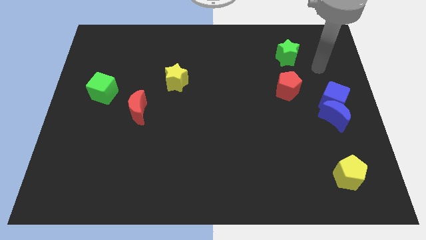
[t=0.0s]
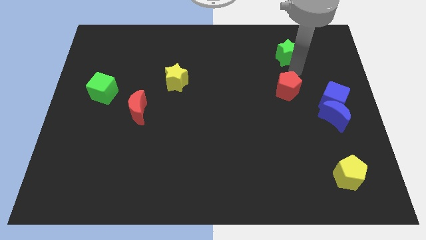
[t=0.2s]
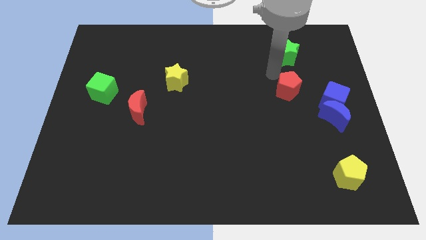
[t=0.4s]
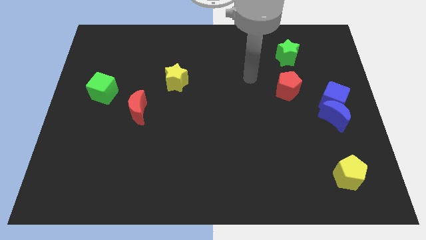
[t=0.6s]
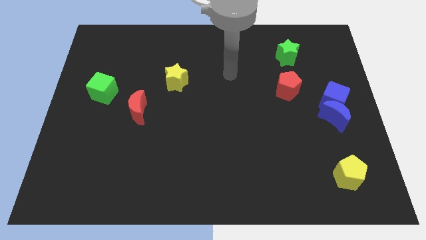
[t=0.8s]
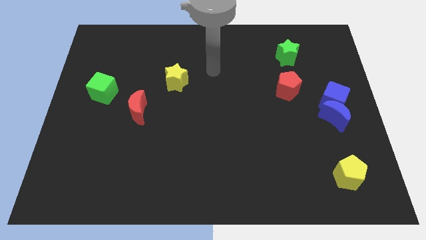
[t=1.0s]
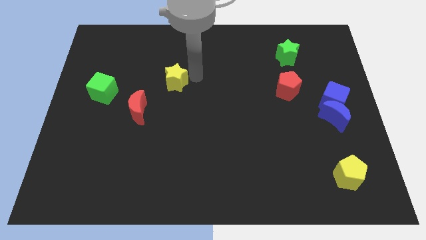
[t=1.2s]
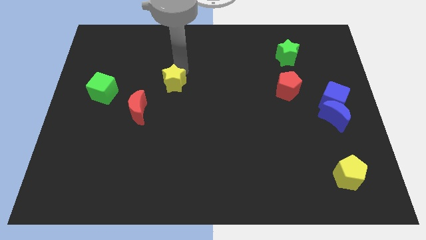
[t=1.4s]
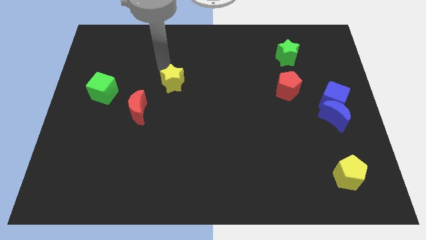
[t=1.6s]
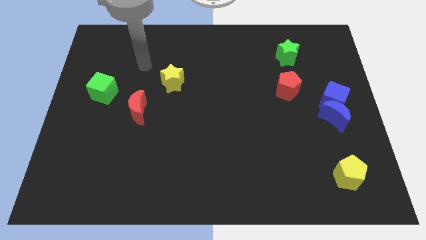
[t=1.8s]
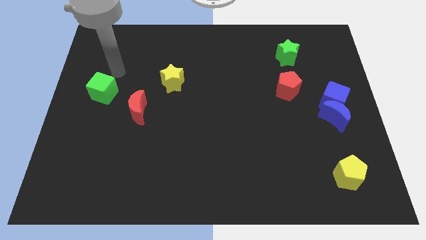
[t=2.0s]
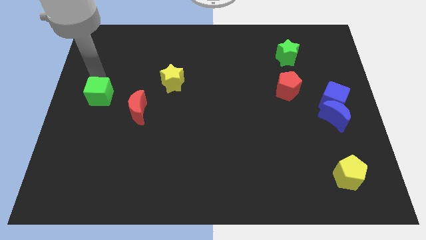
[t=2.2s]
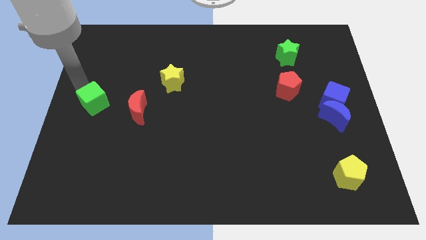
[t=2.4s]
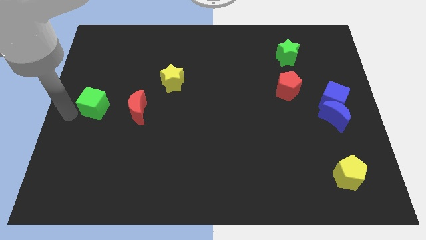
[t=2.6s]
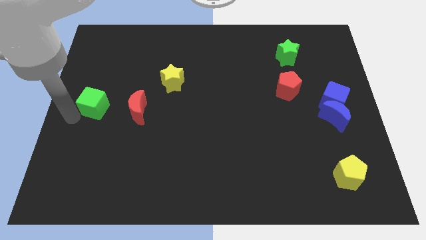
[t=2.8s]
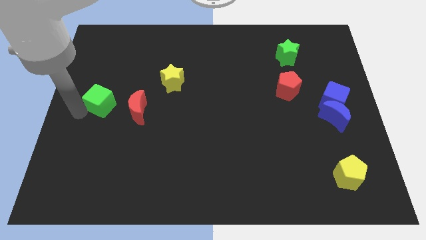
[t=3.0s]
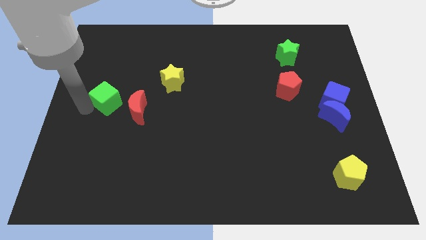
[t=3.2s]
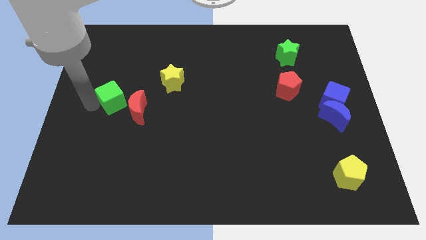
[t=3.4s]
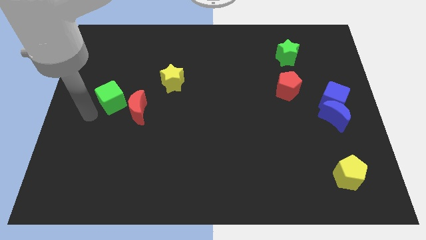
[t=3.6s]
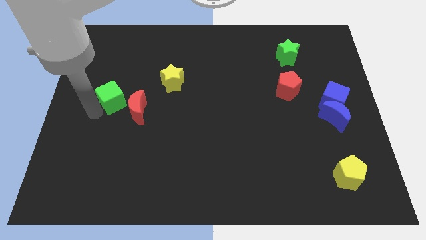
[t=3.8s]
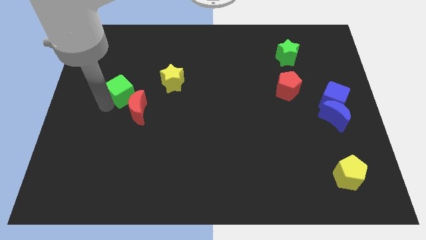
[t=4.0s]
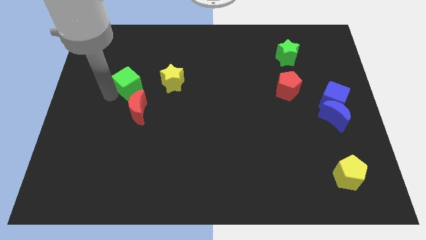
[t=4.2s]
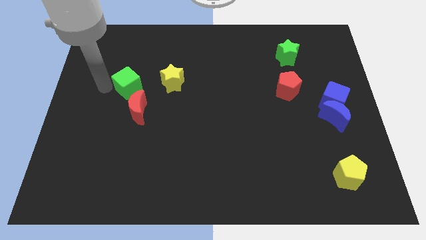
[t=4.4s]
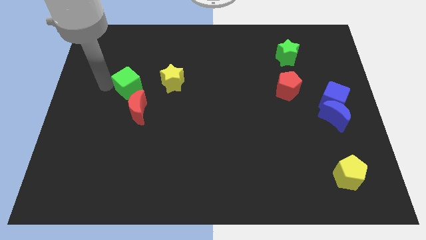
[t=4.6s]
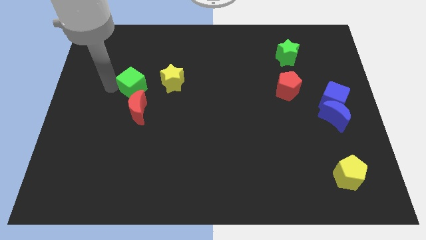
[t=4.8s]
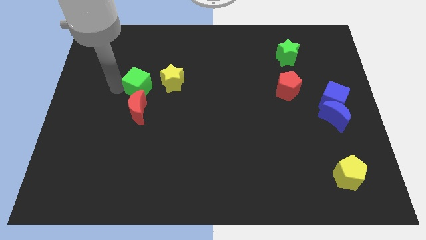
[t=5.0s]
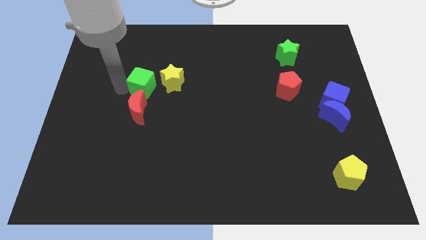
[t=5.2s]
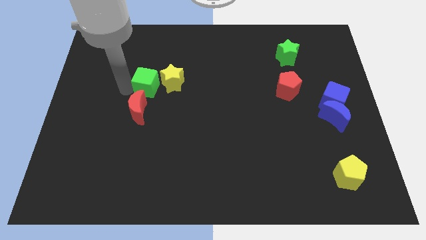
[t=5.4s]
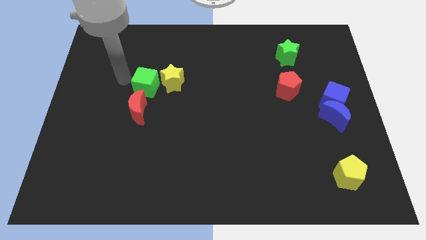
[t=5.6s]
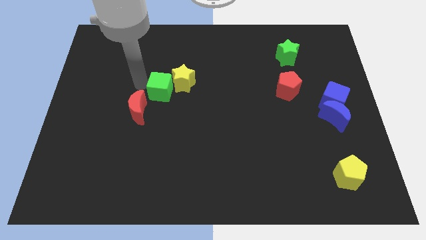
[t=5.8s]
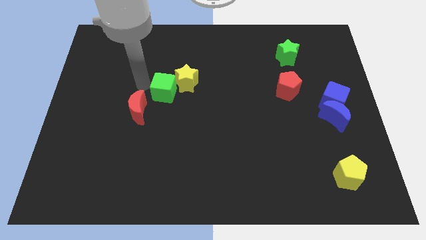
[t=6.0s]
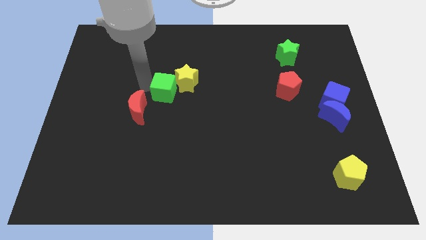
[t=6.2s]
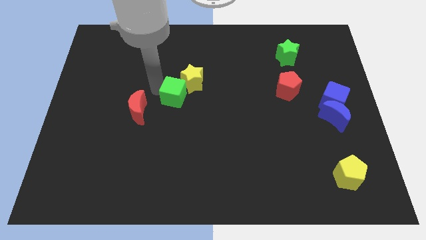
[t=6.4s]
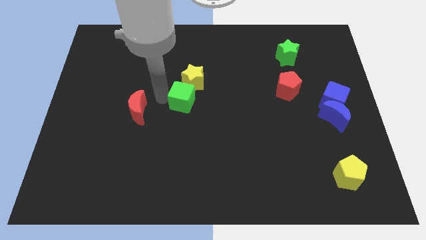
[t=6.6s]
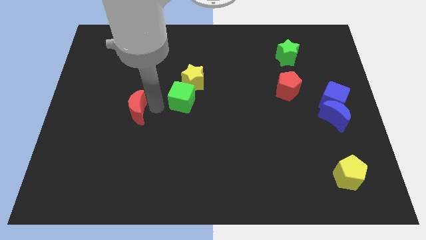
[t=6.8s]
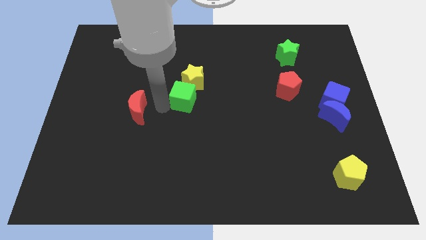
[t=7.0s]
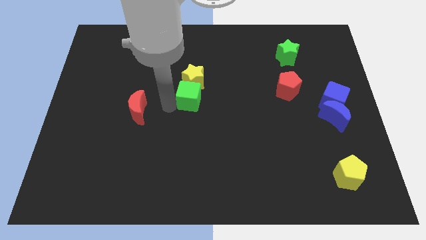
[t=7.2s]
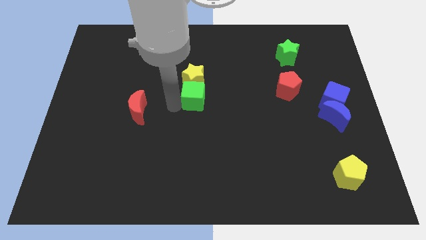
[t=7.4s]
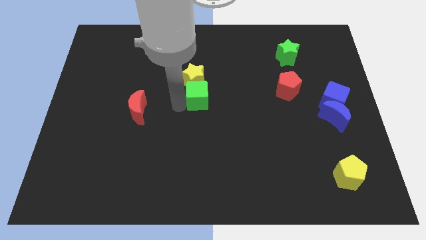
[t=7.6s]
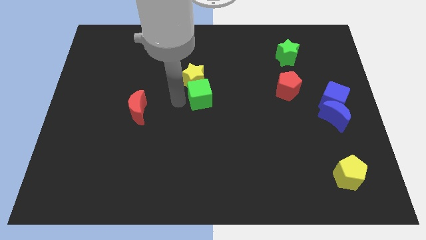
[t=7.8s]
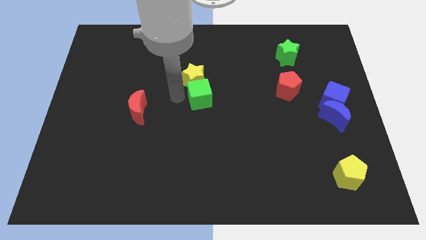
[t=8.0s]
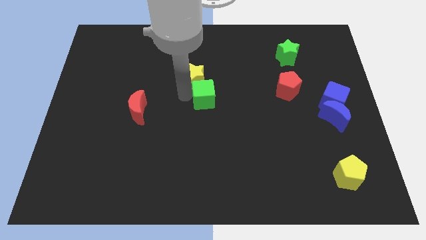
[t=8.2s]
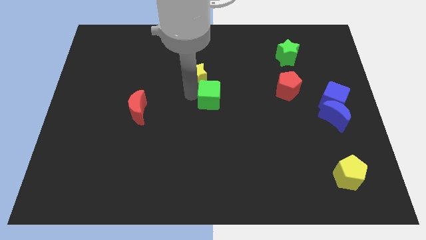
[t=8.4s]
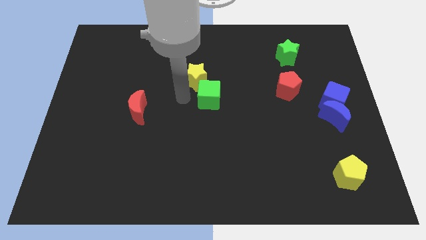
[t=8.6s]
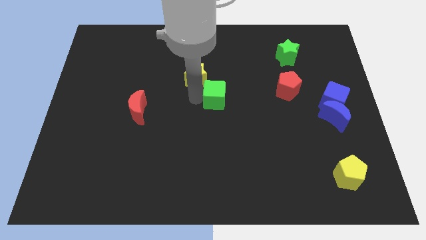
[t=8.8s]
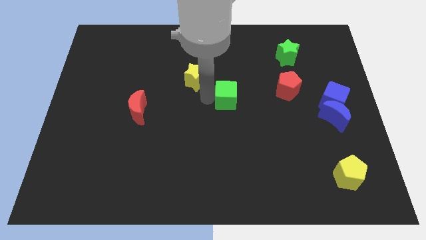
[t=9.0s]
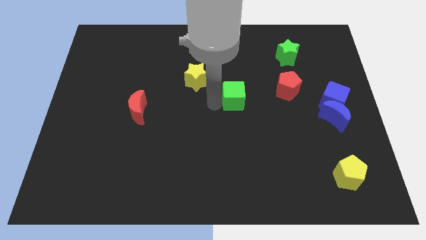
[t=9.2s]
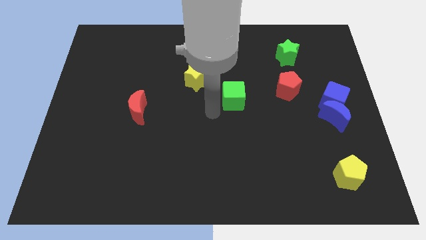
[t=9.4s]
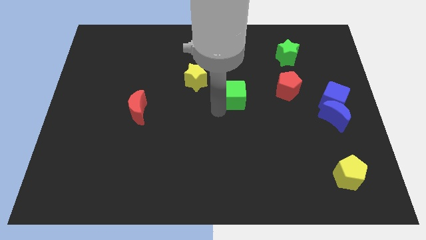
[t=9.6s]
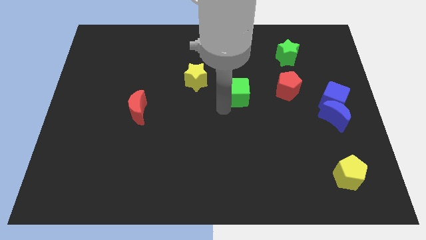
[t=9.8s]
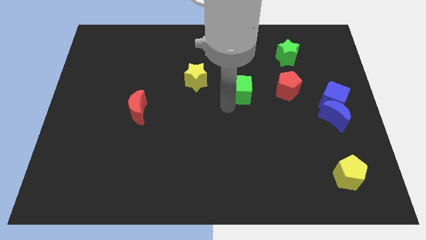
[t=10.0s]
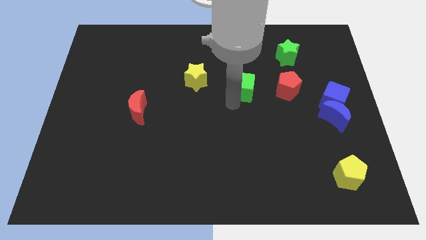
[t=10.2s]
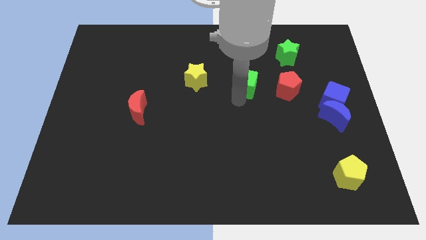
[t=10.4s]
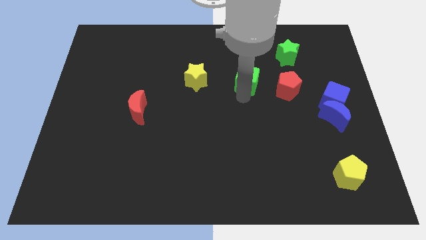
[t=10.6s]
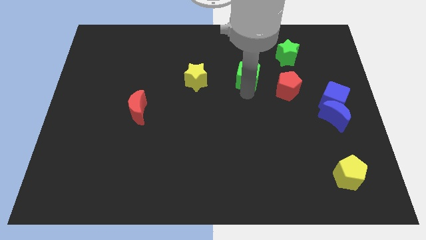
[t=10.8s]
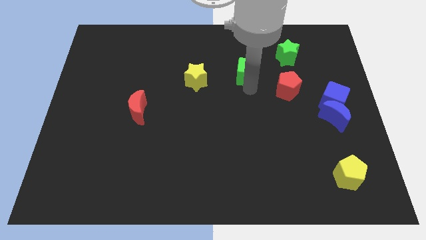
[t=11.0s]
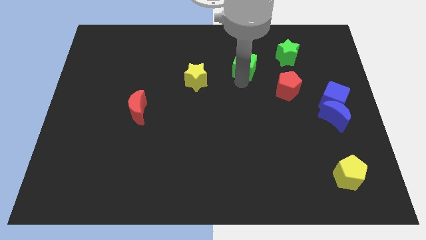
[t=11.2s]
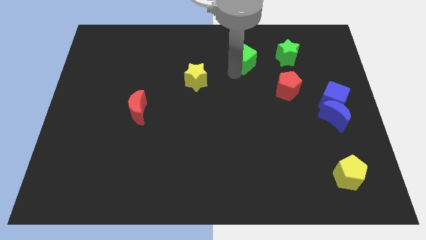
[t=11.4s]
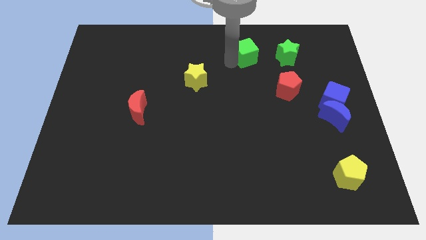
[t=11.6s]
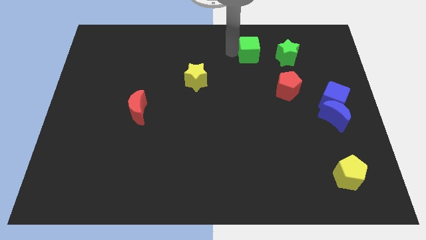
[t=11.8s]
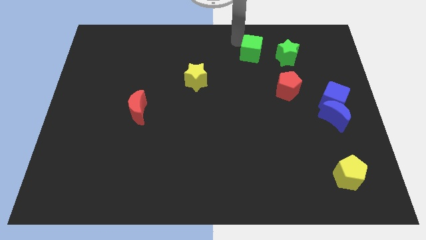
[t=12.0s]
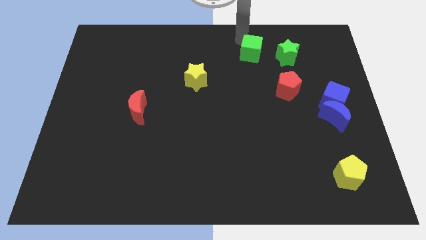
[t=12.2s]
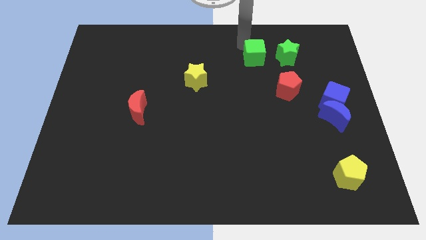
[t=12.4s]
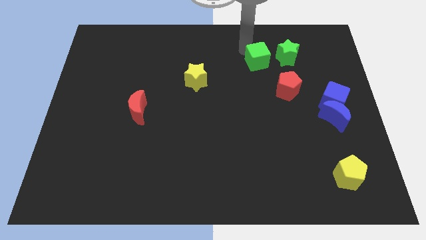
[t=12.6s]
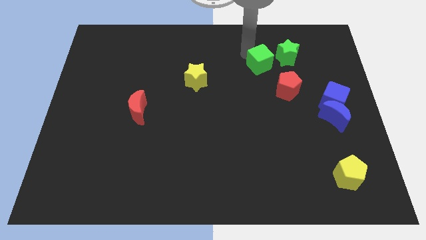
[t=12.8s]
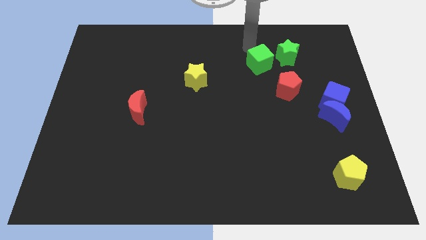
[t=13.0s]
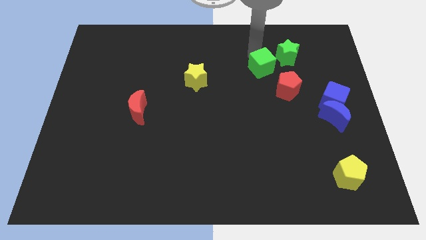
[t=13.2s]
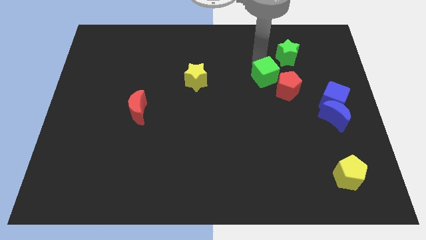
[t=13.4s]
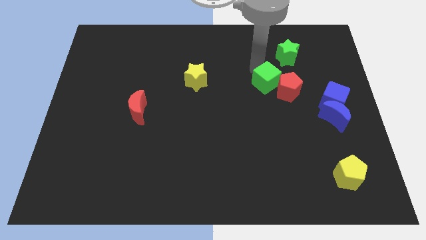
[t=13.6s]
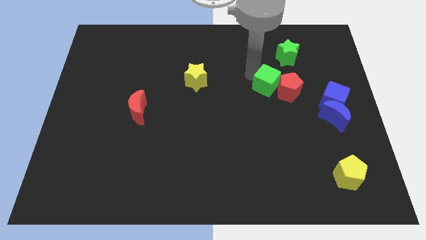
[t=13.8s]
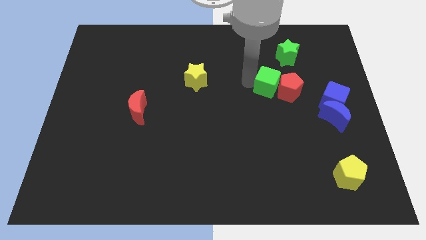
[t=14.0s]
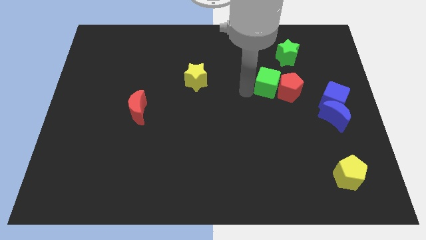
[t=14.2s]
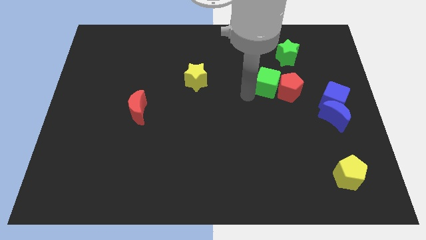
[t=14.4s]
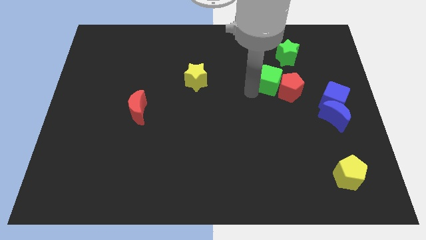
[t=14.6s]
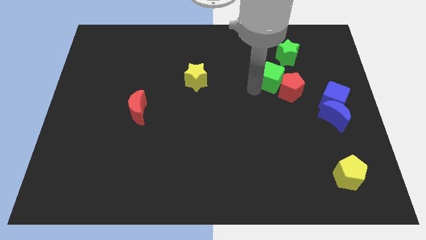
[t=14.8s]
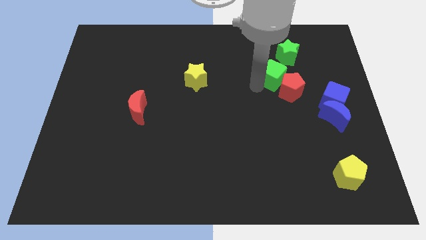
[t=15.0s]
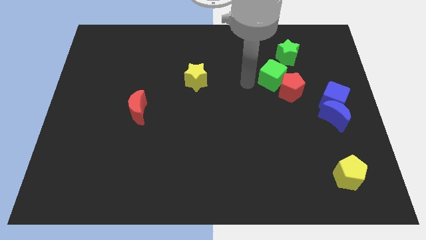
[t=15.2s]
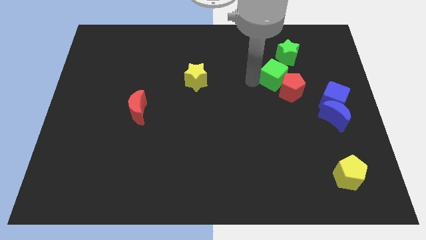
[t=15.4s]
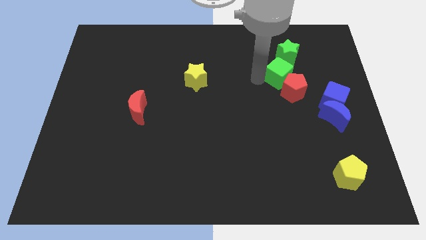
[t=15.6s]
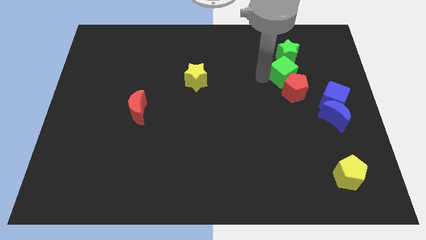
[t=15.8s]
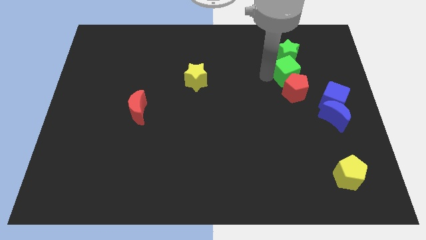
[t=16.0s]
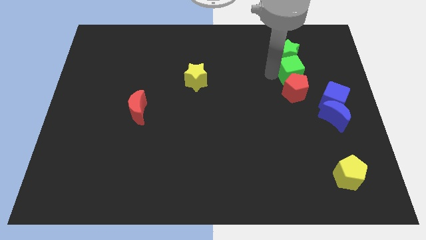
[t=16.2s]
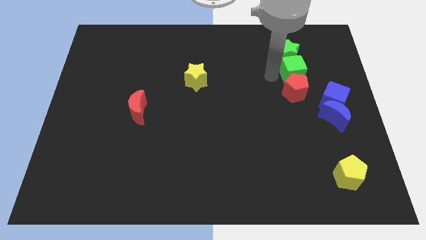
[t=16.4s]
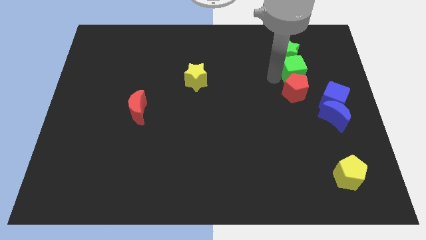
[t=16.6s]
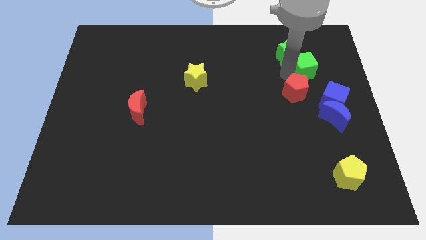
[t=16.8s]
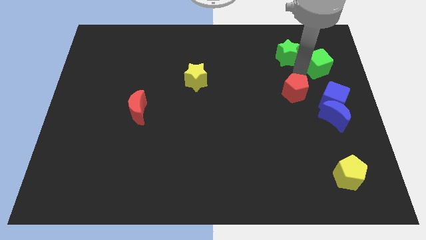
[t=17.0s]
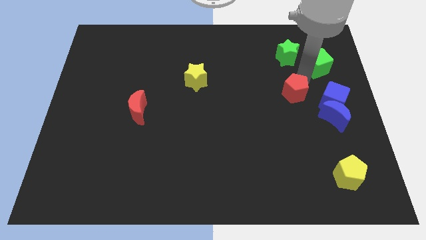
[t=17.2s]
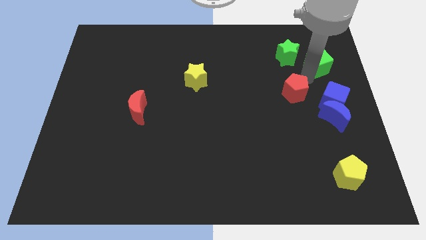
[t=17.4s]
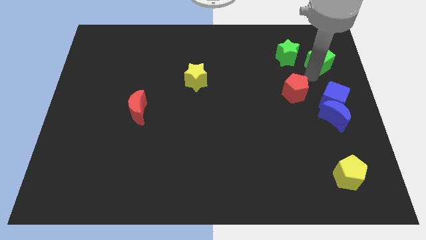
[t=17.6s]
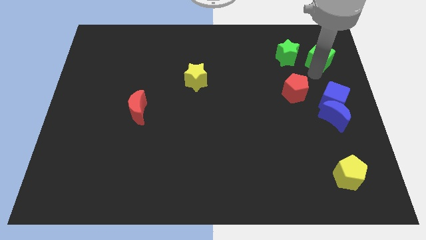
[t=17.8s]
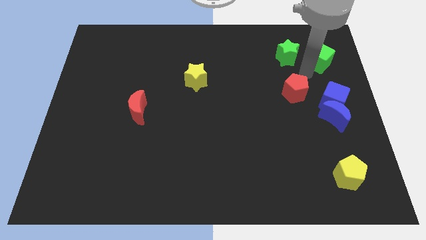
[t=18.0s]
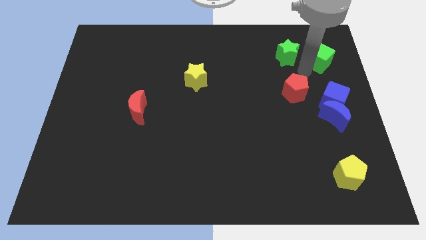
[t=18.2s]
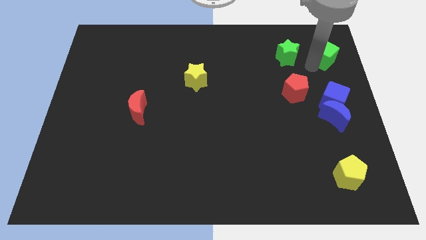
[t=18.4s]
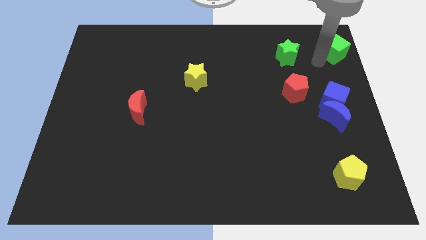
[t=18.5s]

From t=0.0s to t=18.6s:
slide the green cube to the top right
